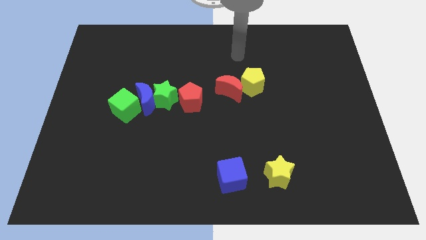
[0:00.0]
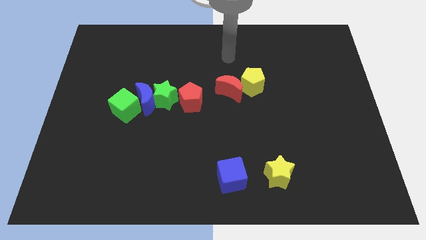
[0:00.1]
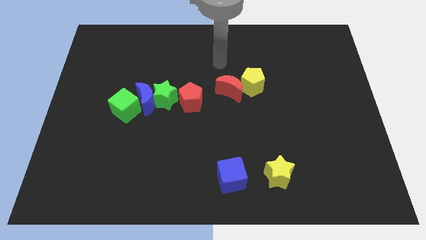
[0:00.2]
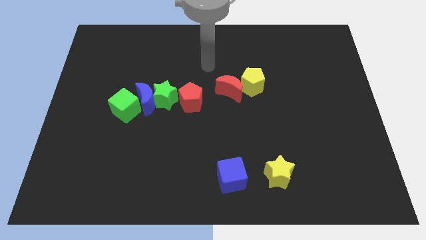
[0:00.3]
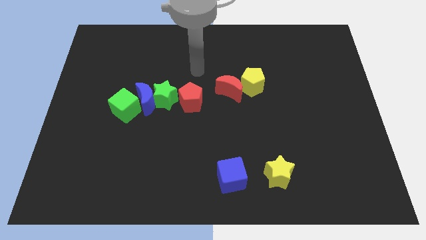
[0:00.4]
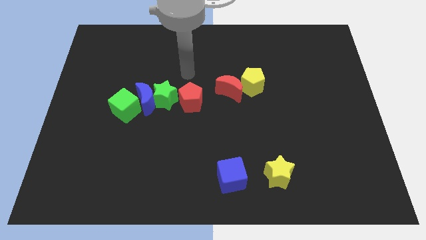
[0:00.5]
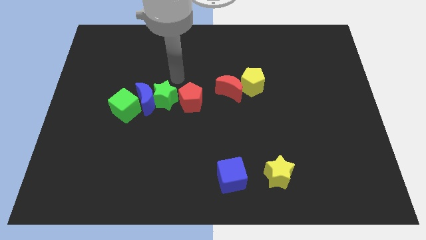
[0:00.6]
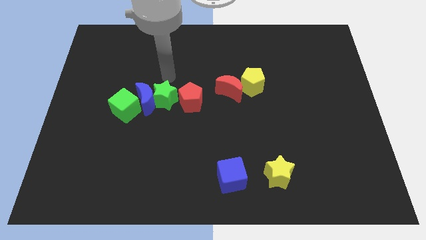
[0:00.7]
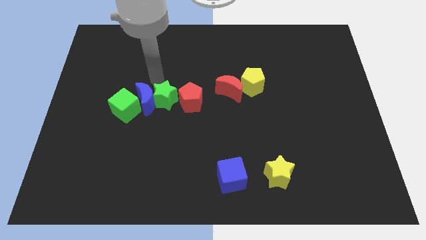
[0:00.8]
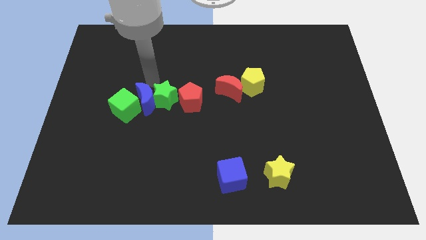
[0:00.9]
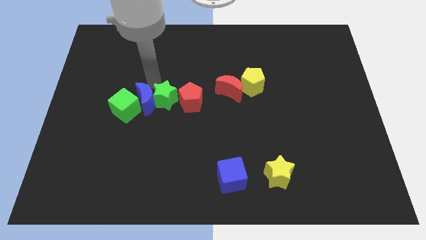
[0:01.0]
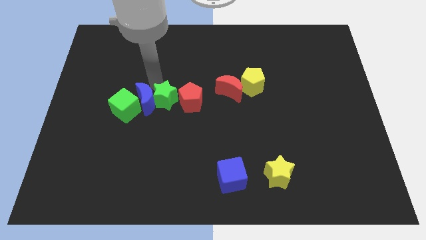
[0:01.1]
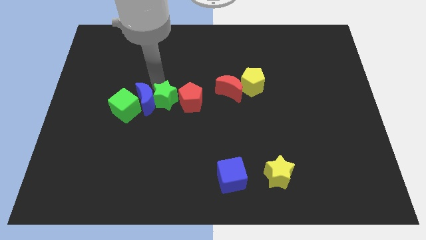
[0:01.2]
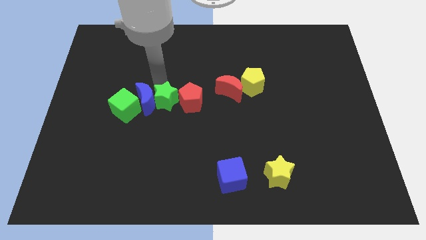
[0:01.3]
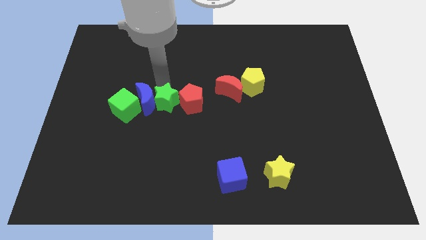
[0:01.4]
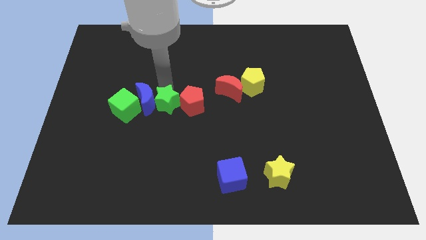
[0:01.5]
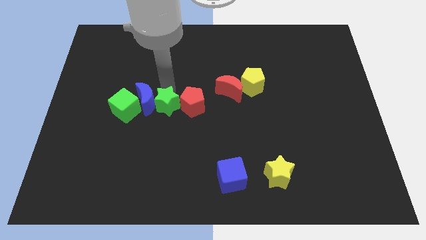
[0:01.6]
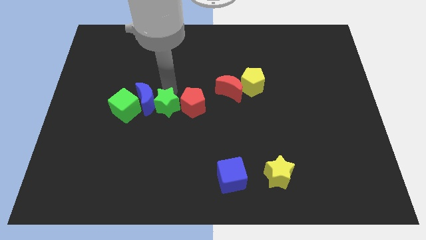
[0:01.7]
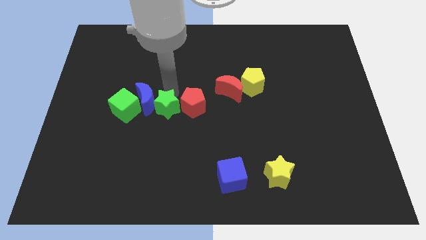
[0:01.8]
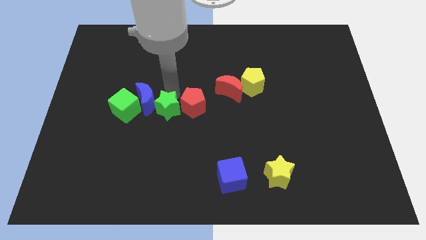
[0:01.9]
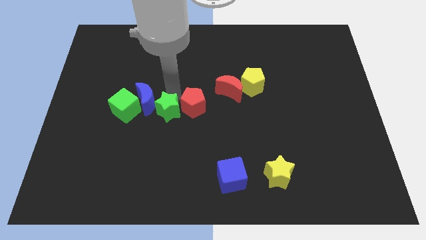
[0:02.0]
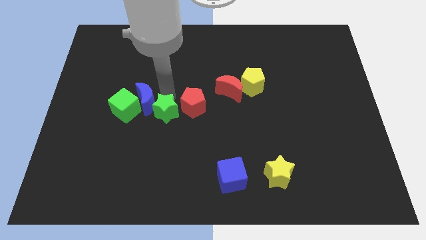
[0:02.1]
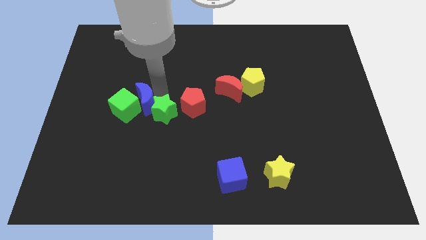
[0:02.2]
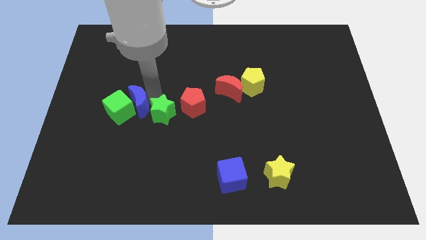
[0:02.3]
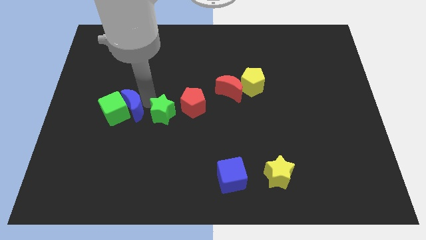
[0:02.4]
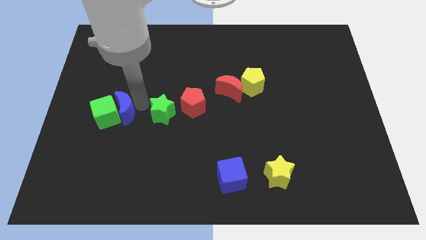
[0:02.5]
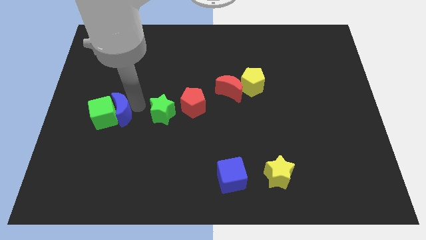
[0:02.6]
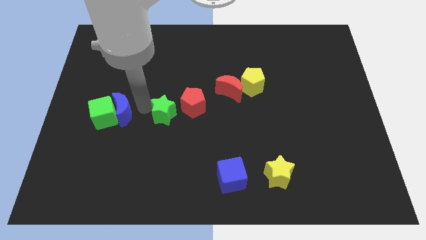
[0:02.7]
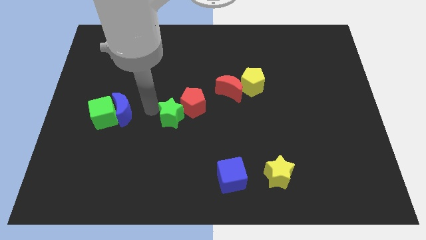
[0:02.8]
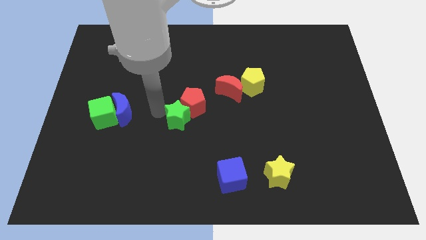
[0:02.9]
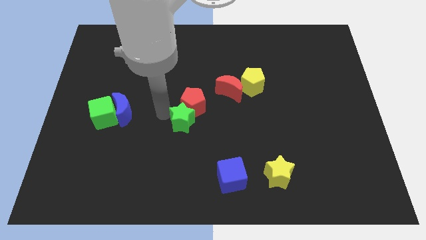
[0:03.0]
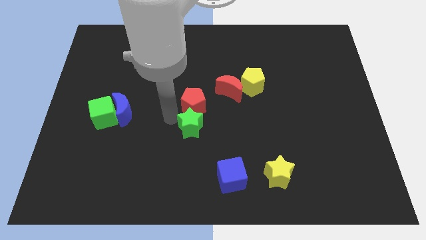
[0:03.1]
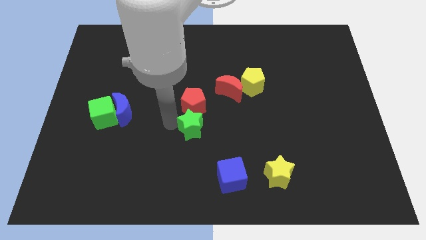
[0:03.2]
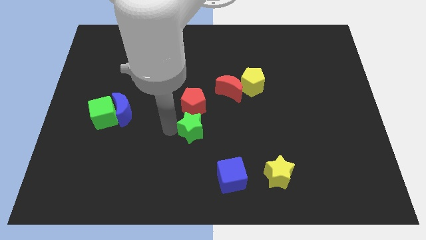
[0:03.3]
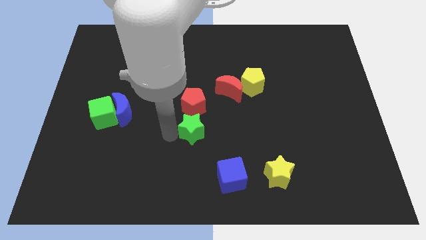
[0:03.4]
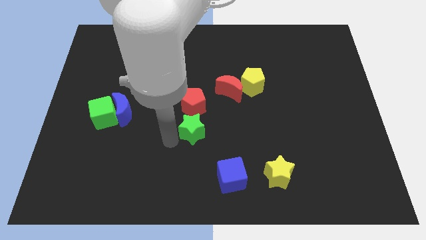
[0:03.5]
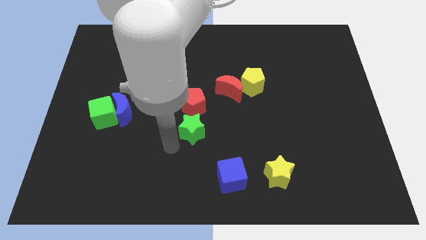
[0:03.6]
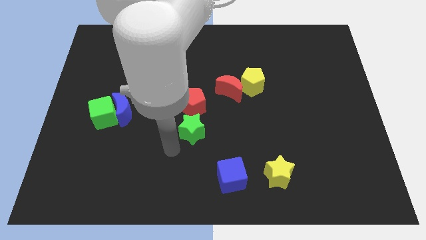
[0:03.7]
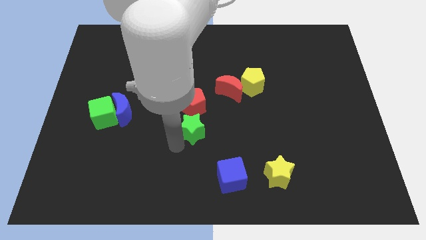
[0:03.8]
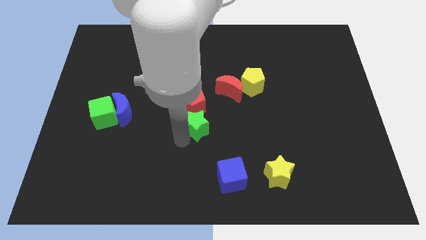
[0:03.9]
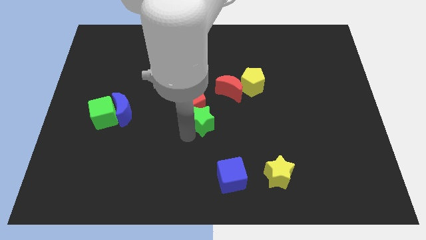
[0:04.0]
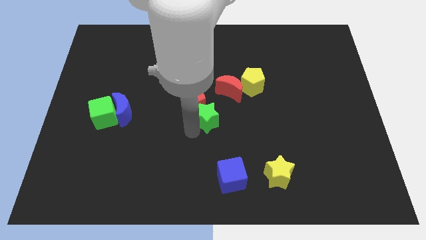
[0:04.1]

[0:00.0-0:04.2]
slide the green star to the right somewhat

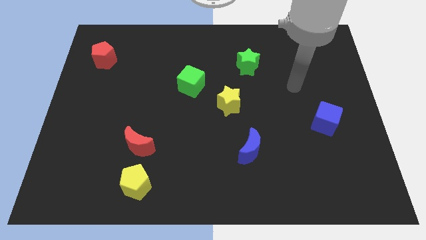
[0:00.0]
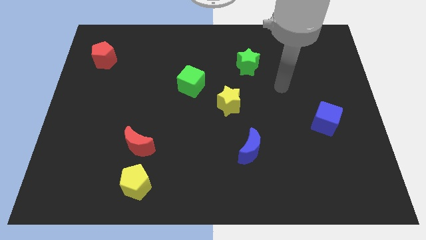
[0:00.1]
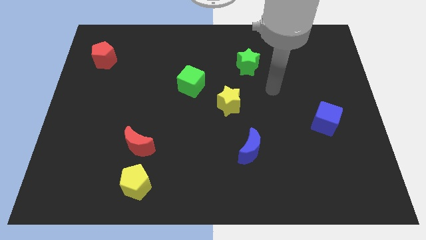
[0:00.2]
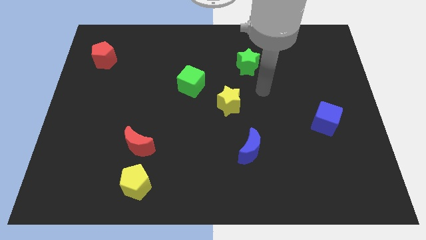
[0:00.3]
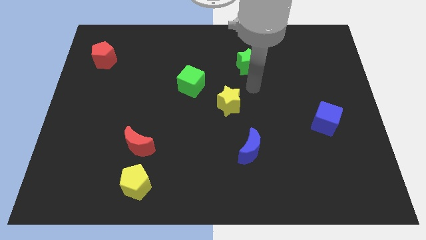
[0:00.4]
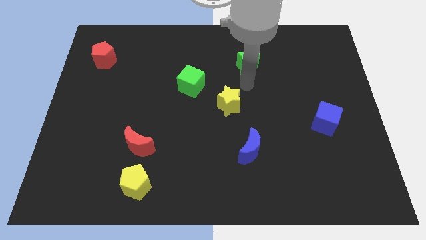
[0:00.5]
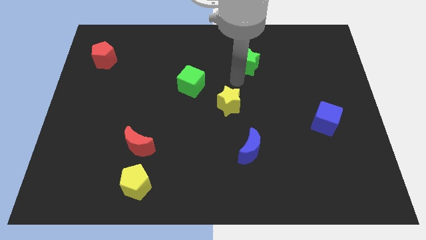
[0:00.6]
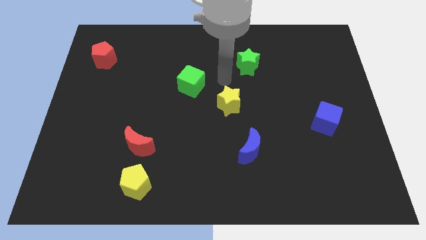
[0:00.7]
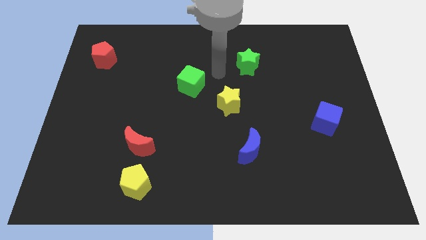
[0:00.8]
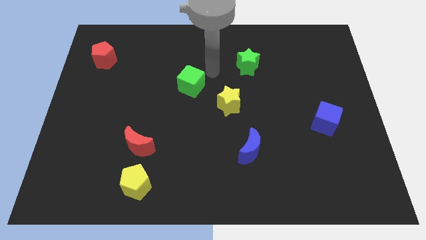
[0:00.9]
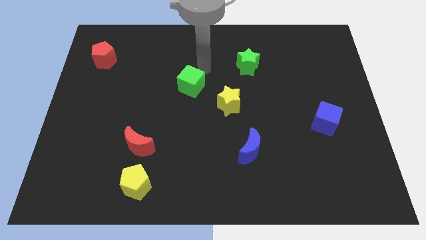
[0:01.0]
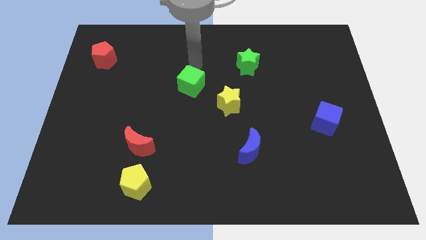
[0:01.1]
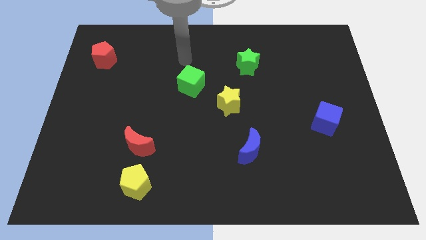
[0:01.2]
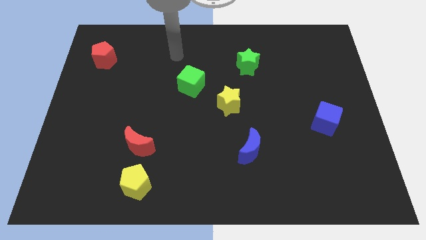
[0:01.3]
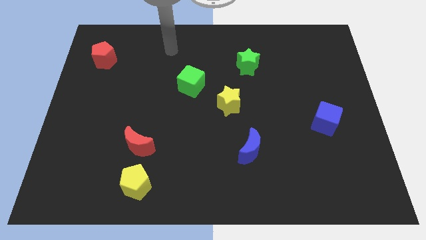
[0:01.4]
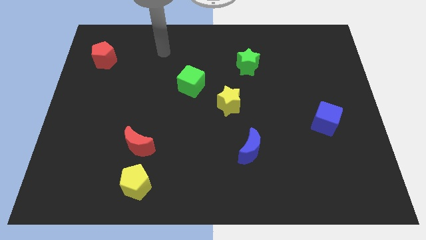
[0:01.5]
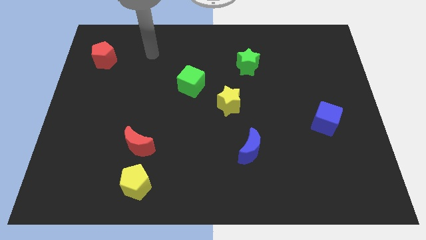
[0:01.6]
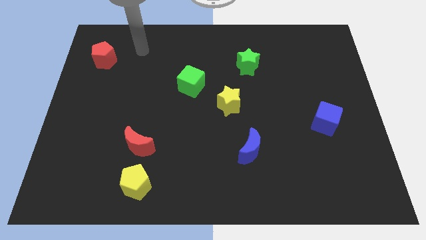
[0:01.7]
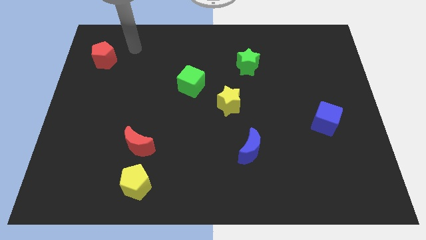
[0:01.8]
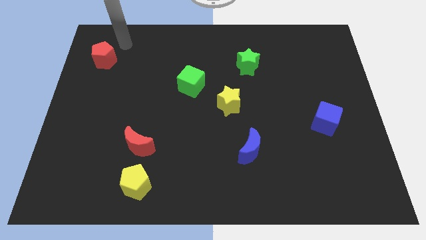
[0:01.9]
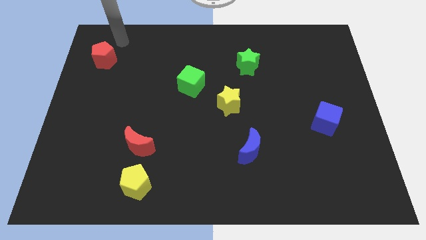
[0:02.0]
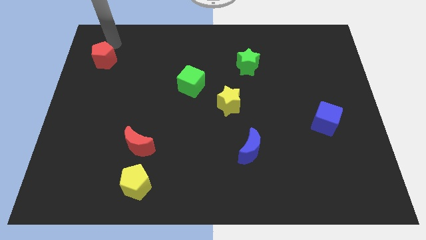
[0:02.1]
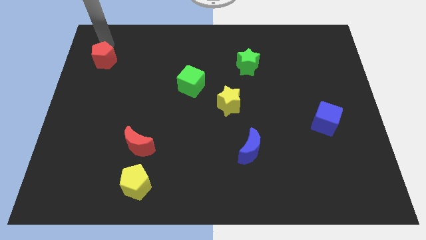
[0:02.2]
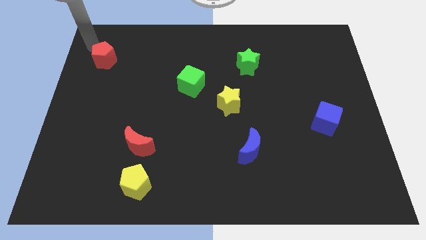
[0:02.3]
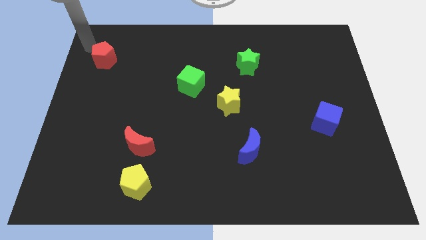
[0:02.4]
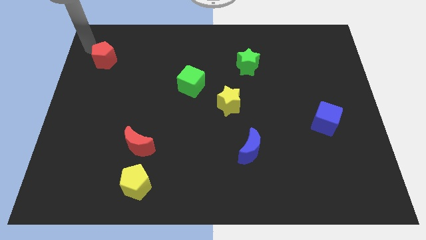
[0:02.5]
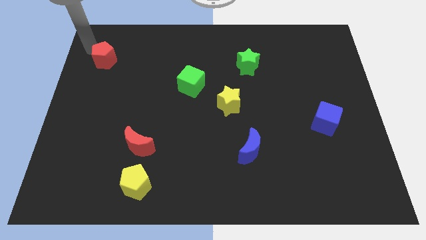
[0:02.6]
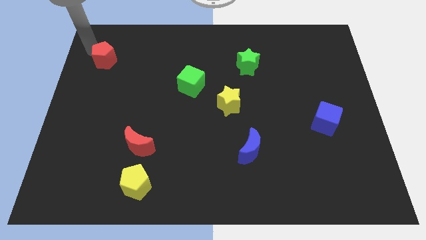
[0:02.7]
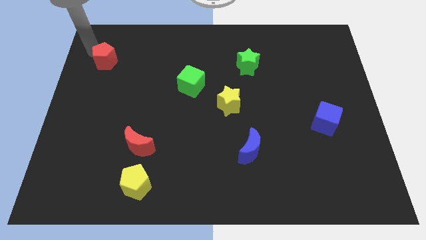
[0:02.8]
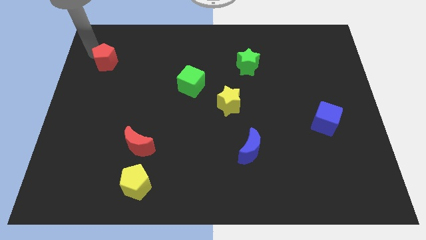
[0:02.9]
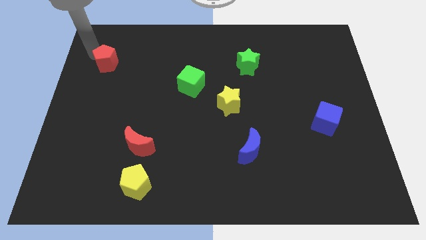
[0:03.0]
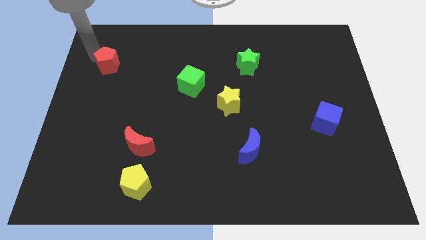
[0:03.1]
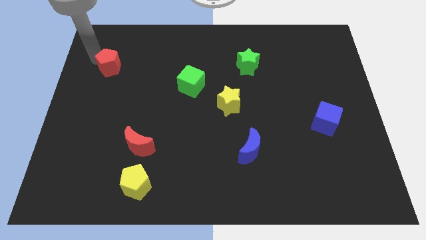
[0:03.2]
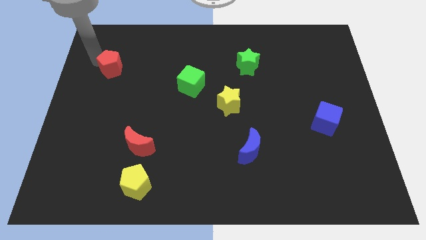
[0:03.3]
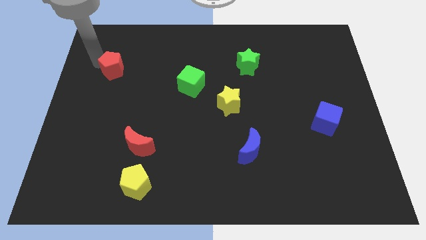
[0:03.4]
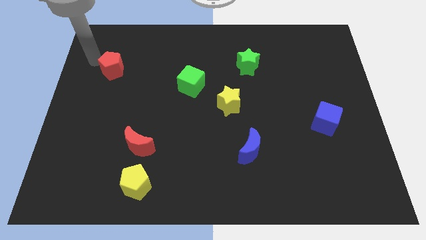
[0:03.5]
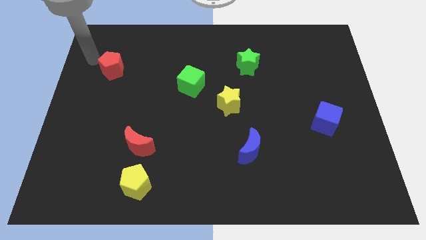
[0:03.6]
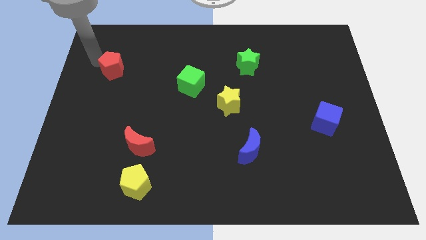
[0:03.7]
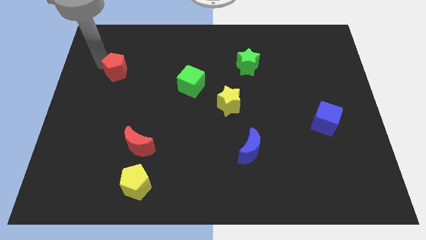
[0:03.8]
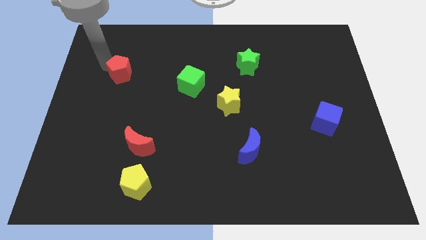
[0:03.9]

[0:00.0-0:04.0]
push the red pentagon down and right diagonally slightly
